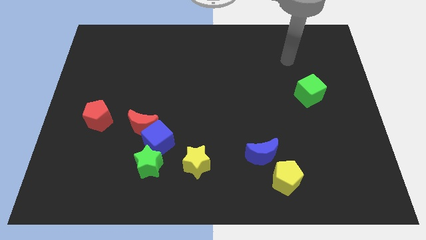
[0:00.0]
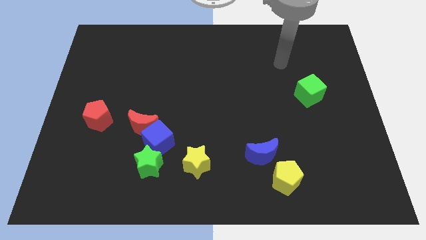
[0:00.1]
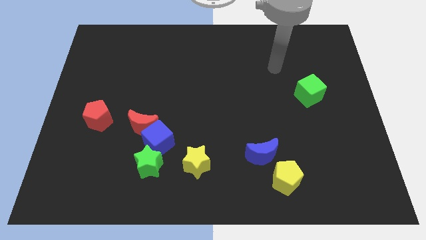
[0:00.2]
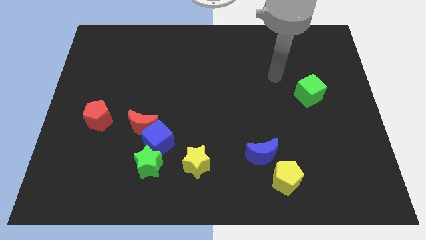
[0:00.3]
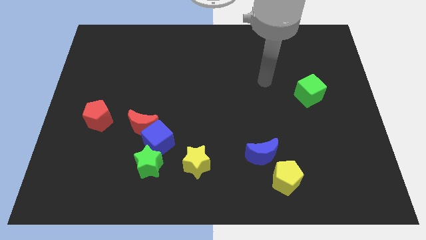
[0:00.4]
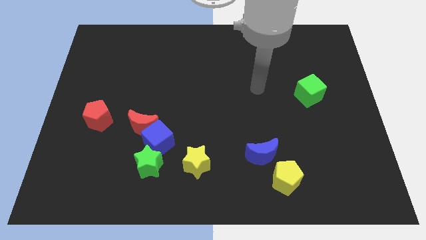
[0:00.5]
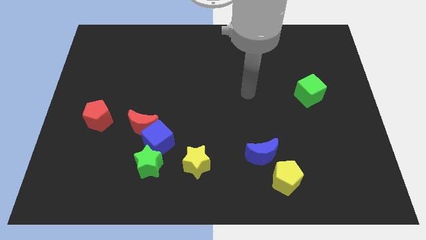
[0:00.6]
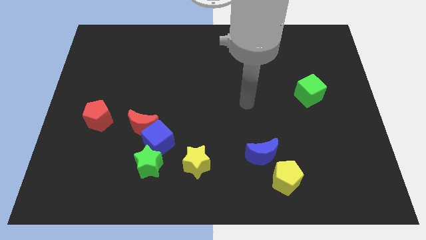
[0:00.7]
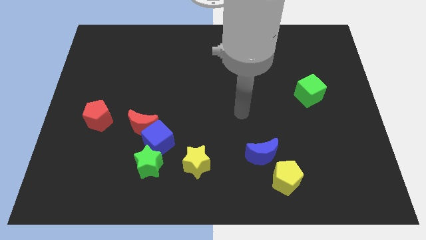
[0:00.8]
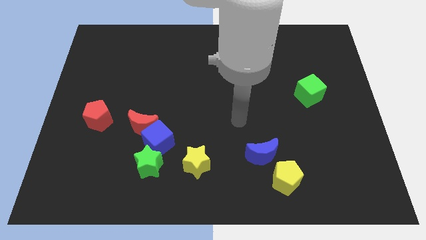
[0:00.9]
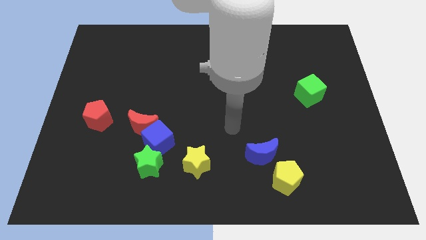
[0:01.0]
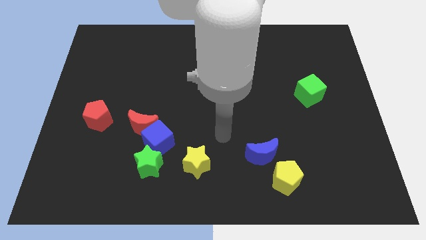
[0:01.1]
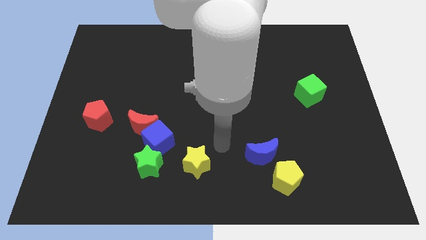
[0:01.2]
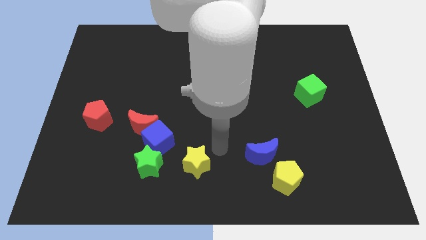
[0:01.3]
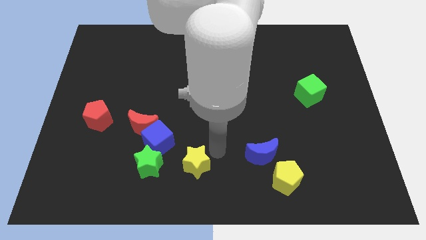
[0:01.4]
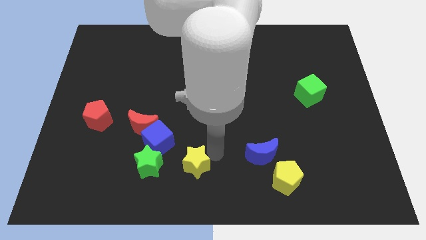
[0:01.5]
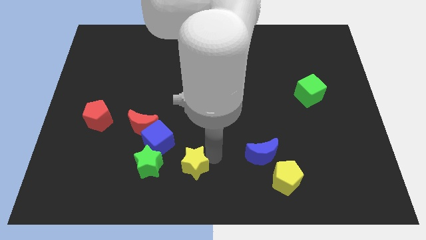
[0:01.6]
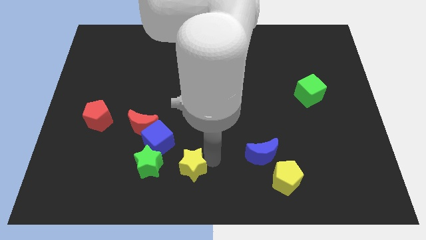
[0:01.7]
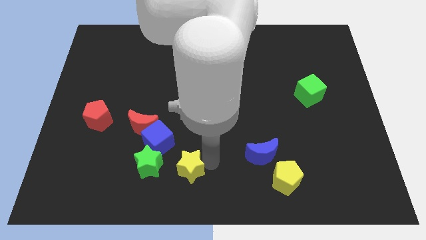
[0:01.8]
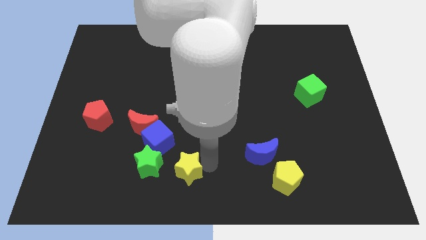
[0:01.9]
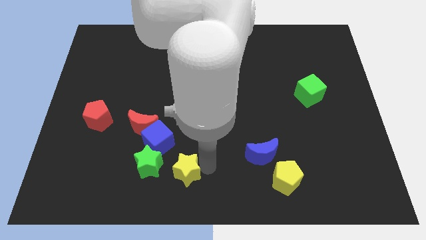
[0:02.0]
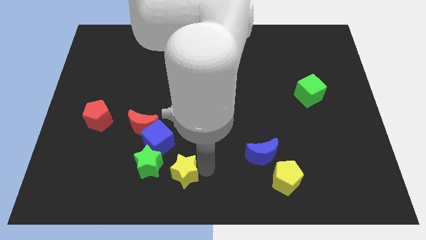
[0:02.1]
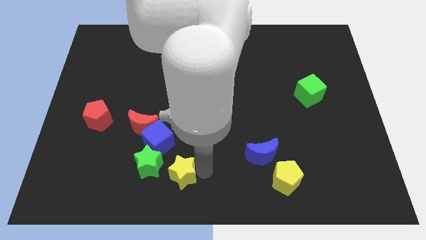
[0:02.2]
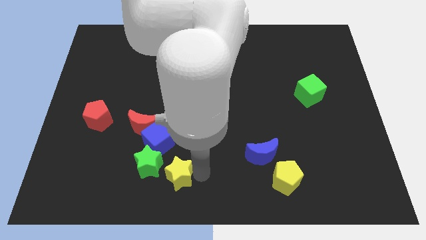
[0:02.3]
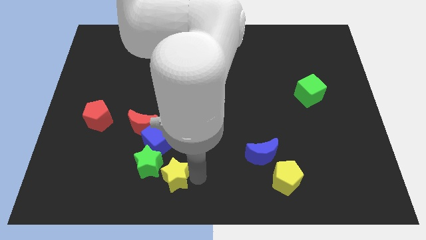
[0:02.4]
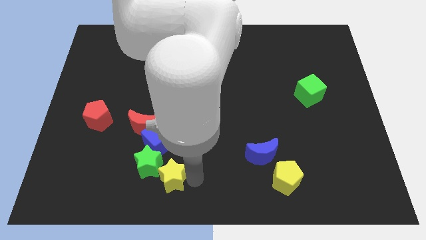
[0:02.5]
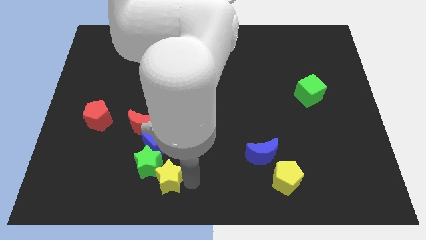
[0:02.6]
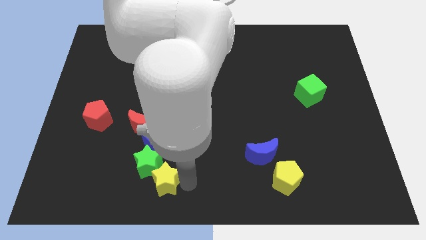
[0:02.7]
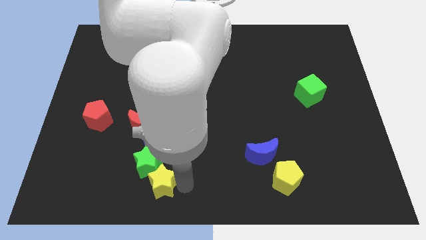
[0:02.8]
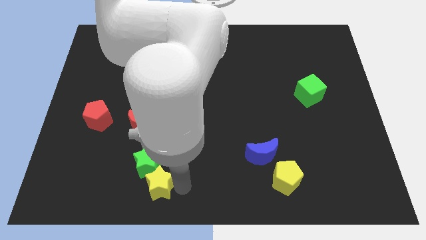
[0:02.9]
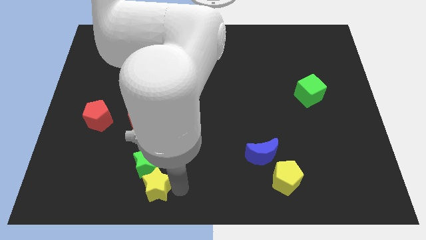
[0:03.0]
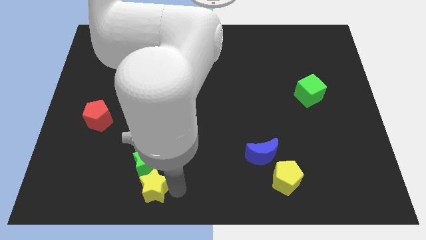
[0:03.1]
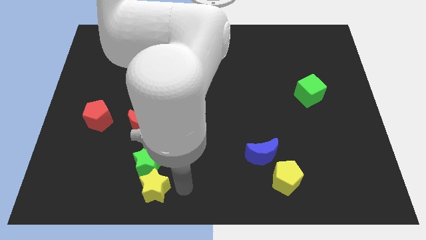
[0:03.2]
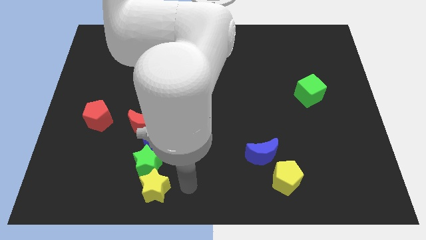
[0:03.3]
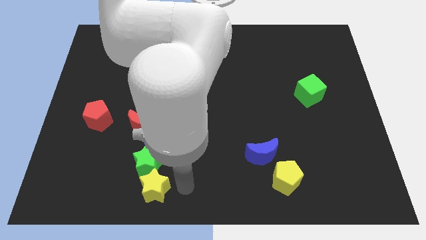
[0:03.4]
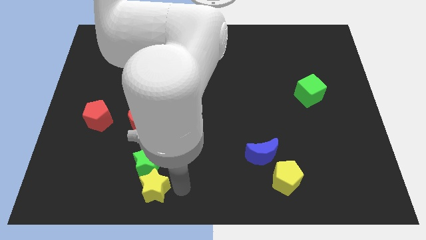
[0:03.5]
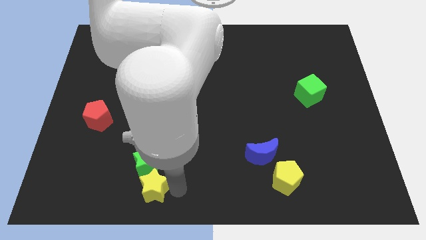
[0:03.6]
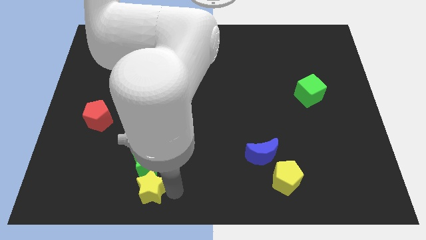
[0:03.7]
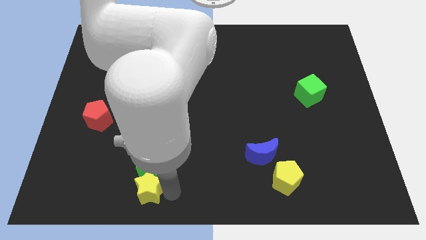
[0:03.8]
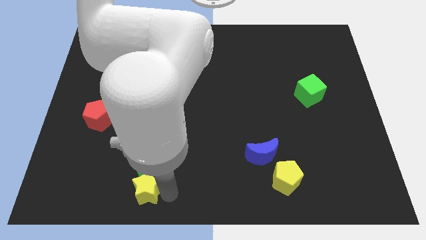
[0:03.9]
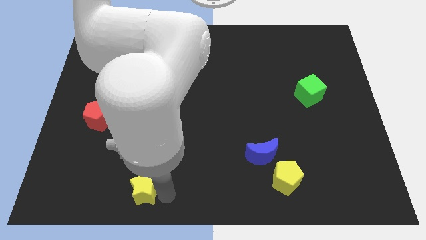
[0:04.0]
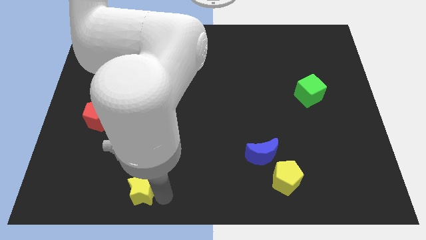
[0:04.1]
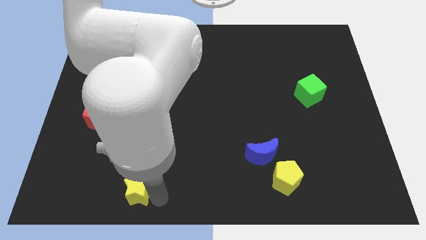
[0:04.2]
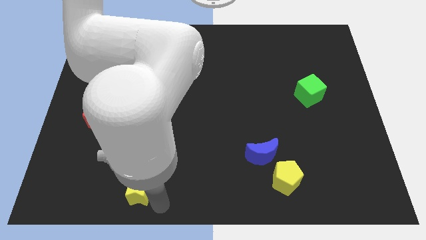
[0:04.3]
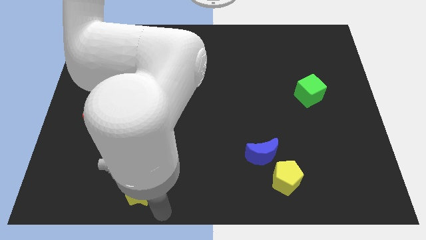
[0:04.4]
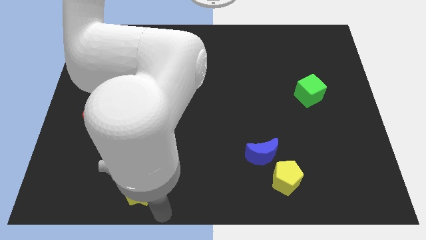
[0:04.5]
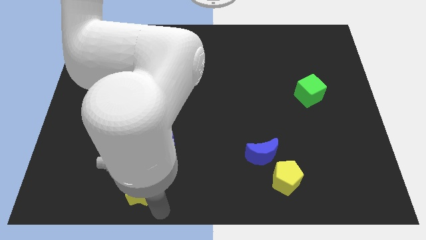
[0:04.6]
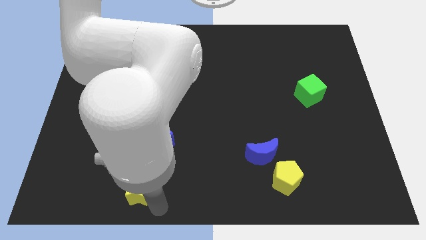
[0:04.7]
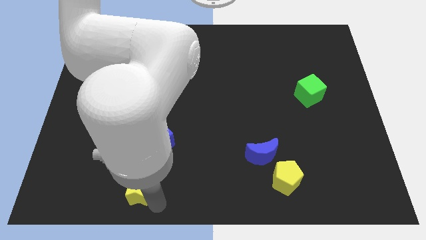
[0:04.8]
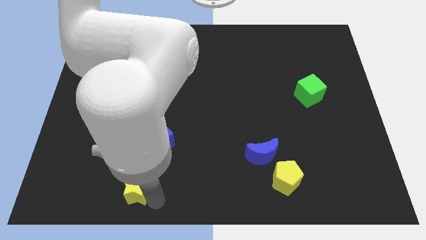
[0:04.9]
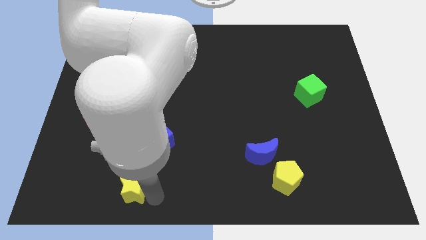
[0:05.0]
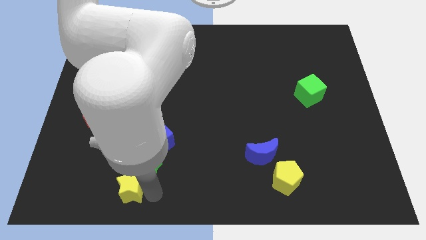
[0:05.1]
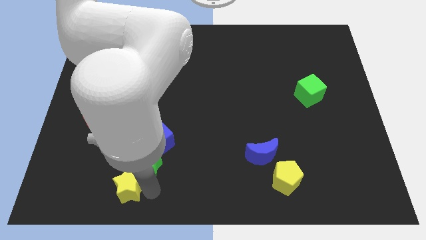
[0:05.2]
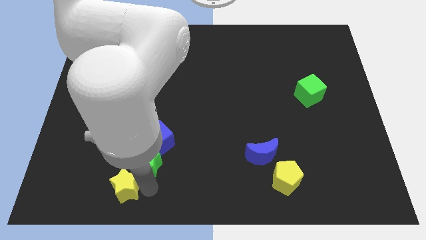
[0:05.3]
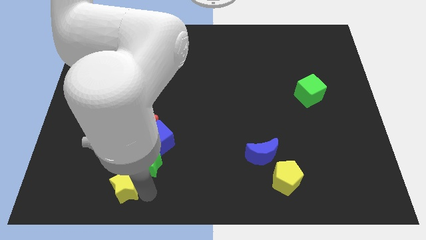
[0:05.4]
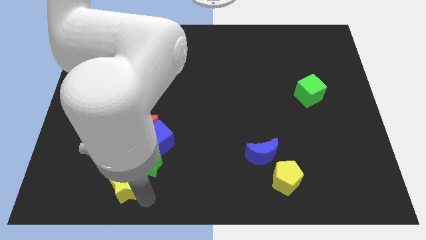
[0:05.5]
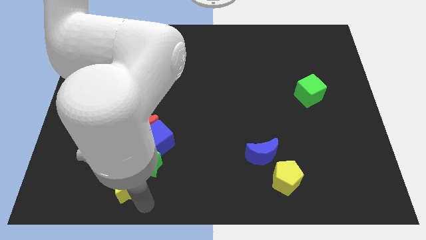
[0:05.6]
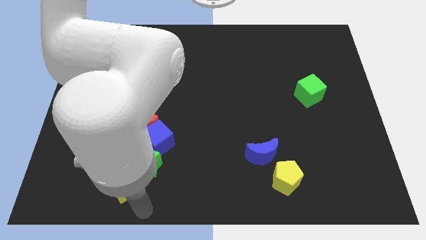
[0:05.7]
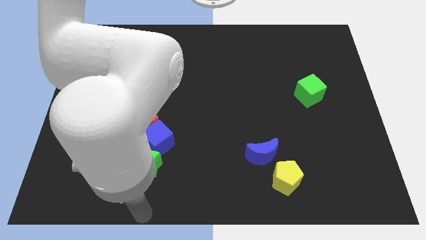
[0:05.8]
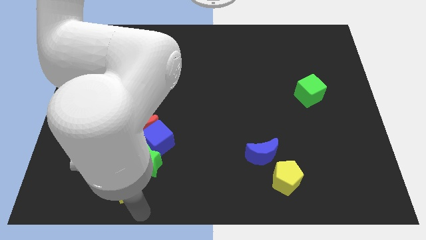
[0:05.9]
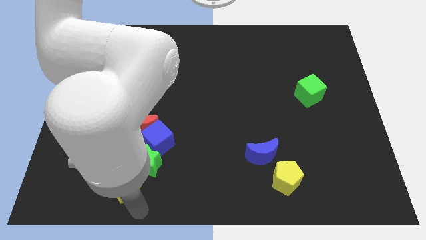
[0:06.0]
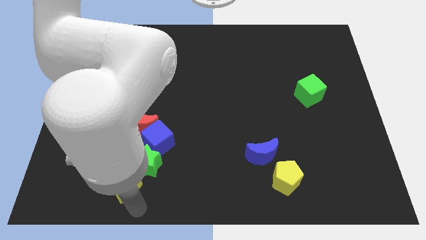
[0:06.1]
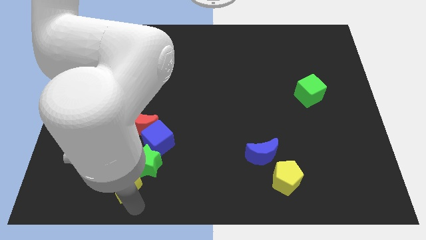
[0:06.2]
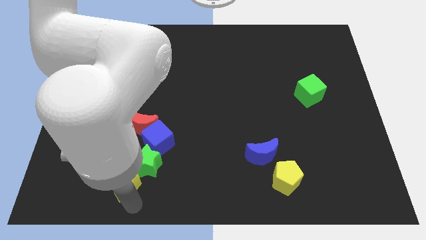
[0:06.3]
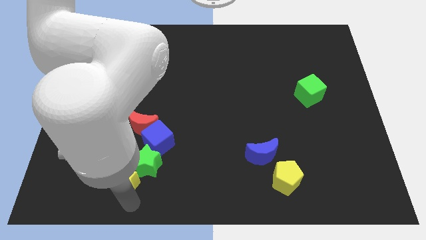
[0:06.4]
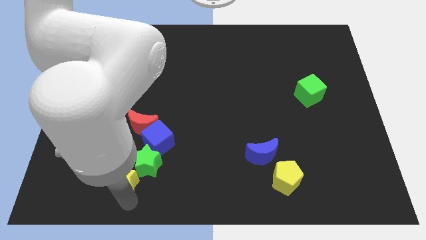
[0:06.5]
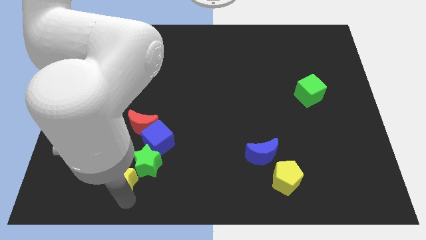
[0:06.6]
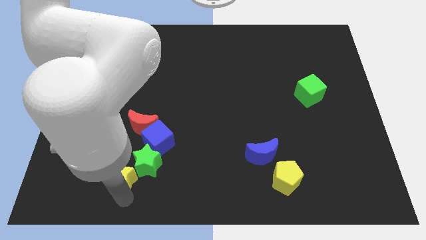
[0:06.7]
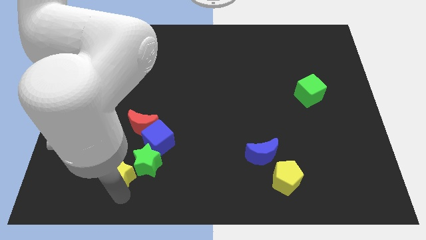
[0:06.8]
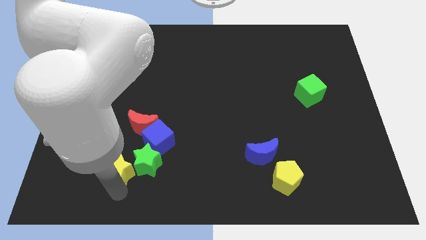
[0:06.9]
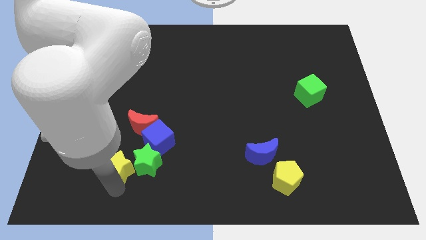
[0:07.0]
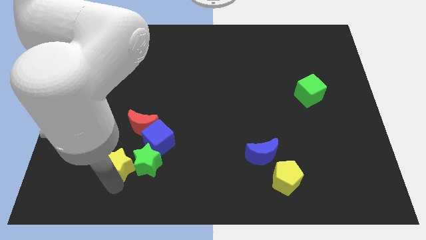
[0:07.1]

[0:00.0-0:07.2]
put the yellow star to the top left side of the green star
